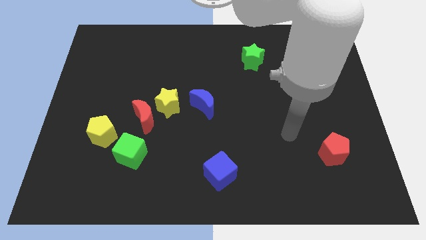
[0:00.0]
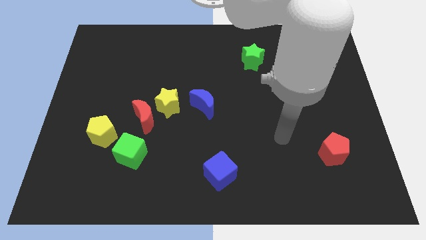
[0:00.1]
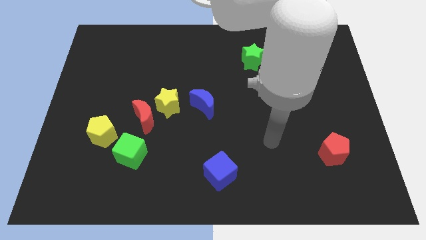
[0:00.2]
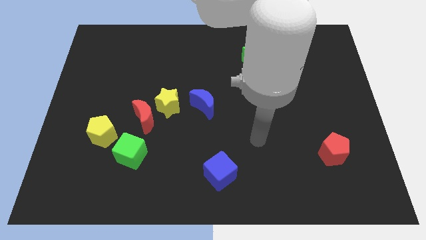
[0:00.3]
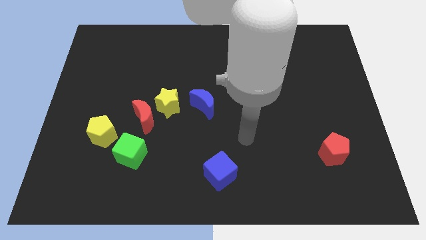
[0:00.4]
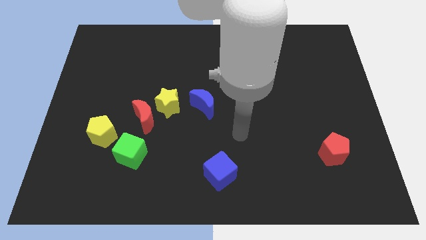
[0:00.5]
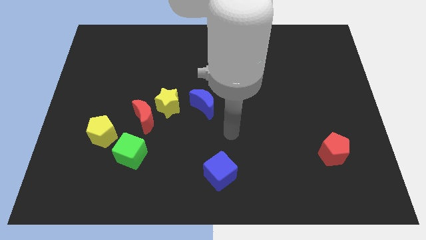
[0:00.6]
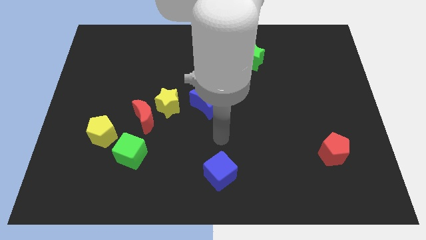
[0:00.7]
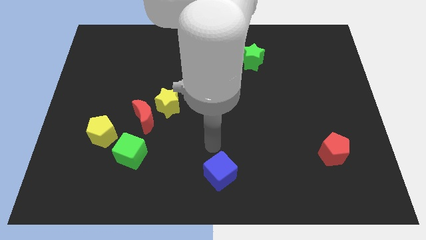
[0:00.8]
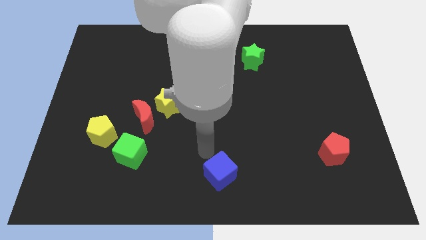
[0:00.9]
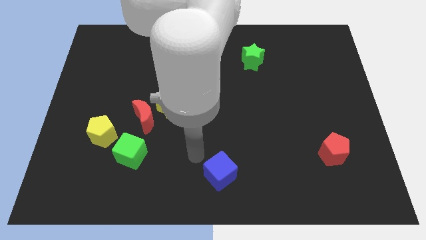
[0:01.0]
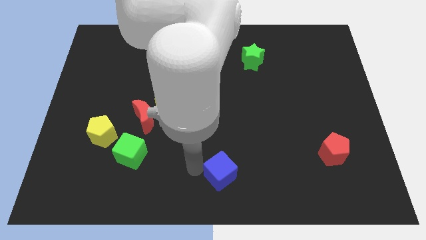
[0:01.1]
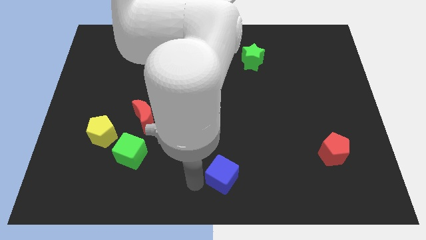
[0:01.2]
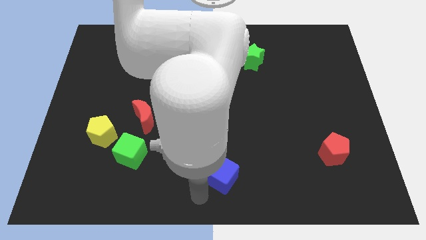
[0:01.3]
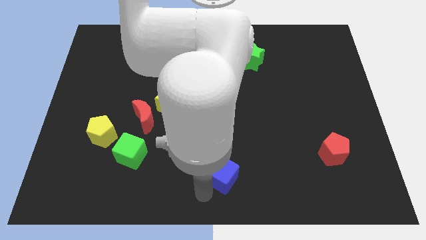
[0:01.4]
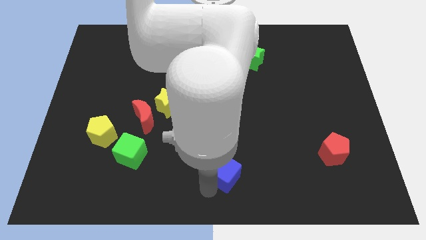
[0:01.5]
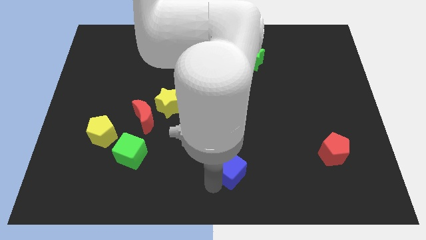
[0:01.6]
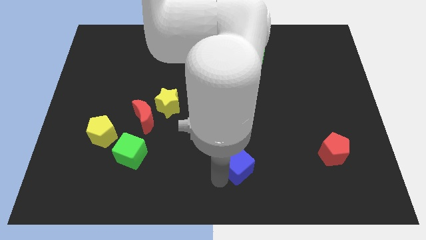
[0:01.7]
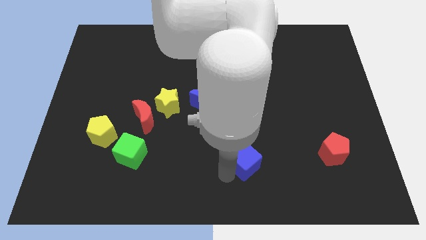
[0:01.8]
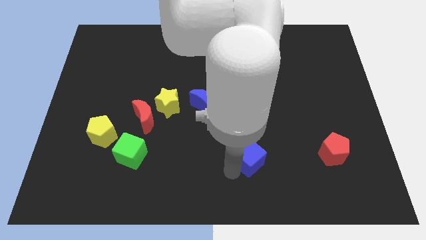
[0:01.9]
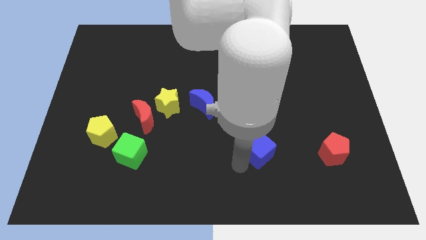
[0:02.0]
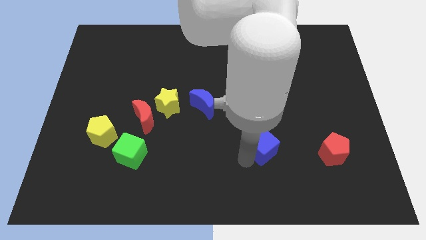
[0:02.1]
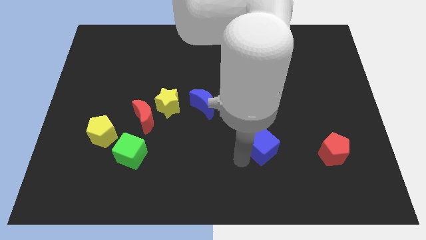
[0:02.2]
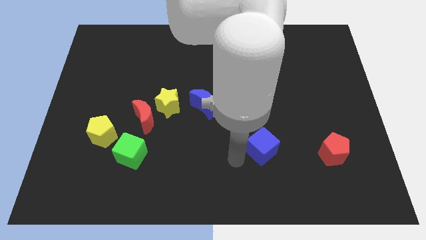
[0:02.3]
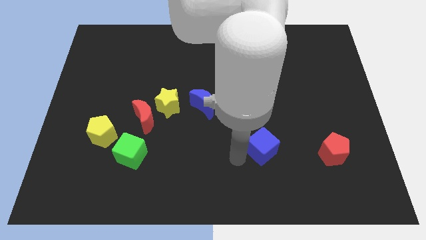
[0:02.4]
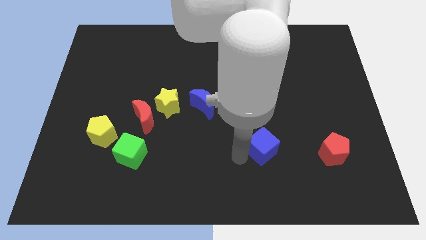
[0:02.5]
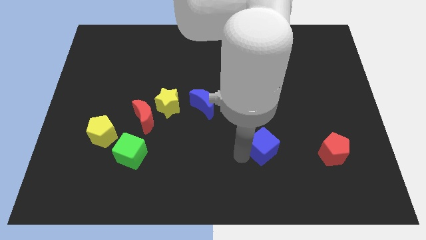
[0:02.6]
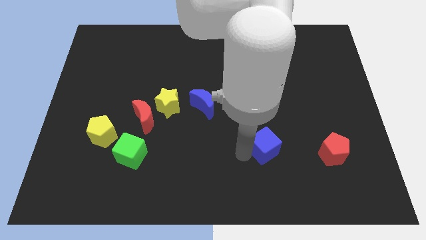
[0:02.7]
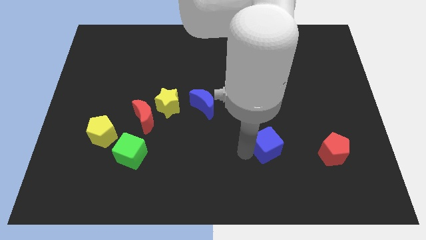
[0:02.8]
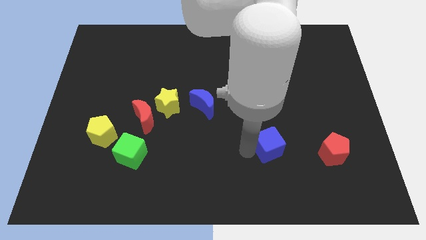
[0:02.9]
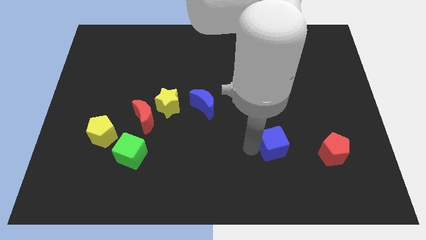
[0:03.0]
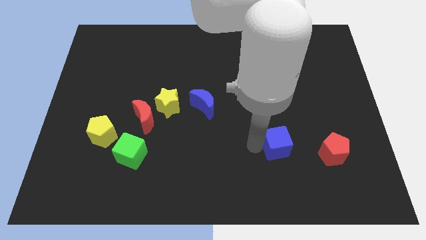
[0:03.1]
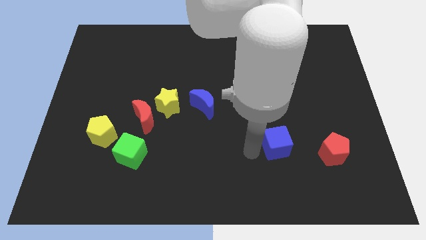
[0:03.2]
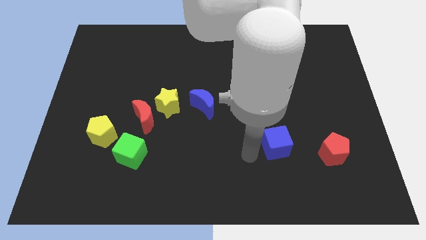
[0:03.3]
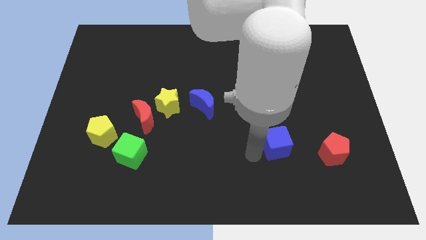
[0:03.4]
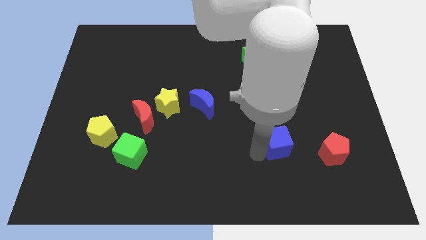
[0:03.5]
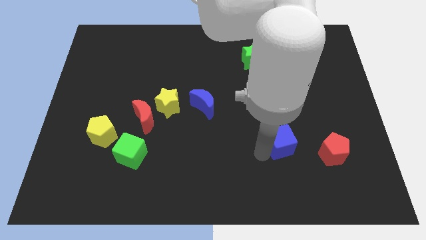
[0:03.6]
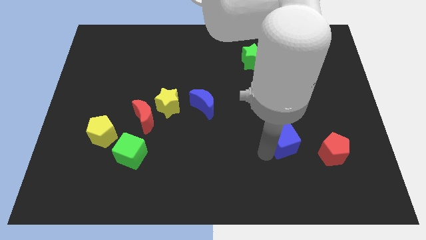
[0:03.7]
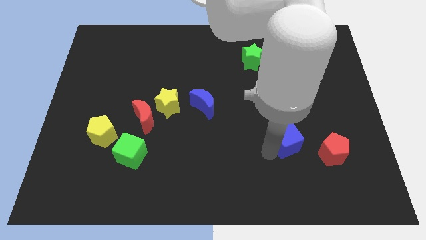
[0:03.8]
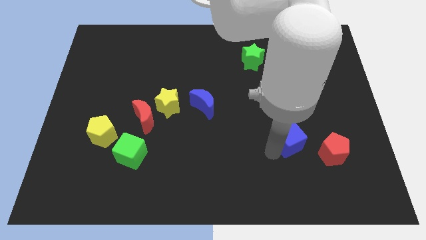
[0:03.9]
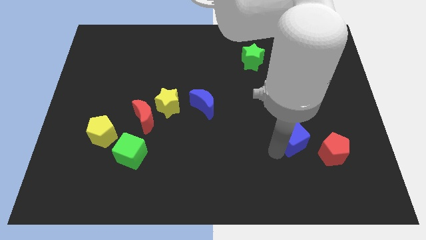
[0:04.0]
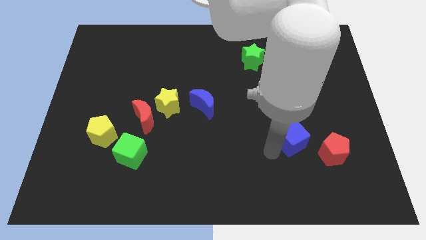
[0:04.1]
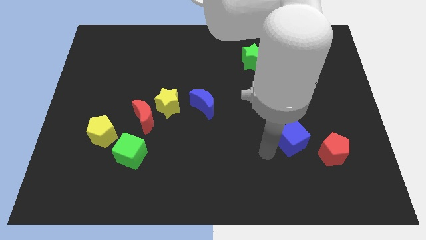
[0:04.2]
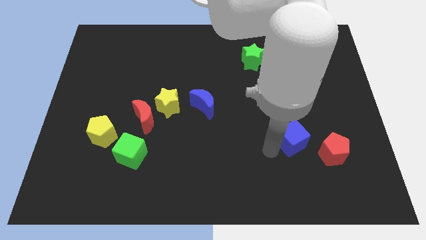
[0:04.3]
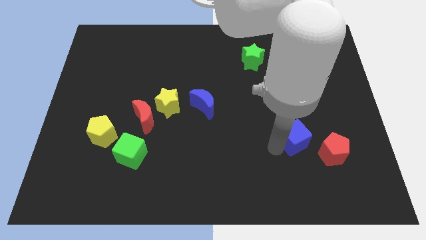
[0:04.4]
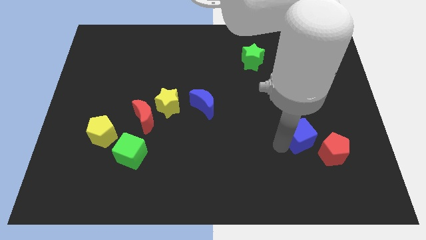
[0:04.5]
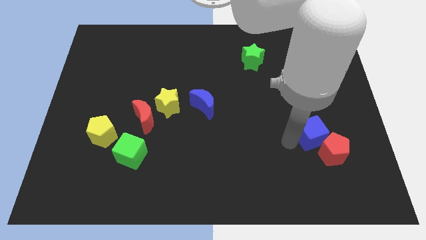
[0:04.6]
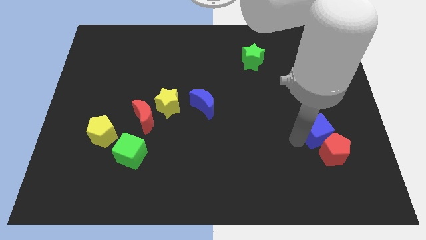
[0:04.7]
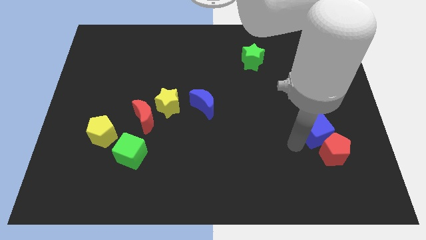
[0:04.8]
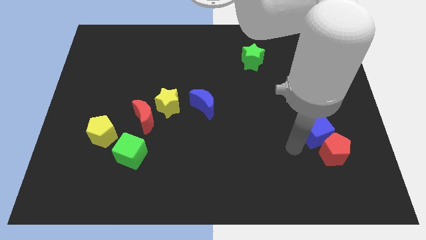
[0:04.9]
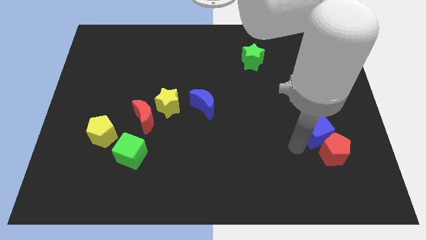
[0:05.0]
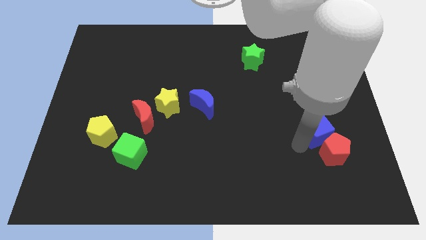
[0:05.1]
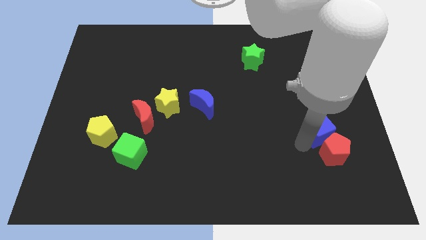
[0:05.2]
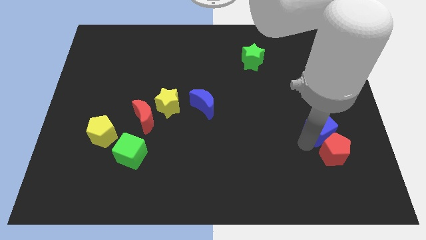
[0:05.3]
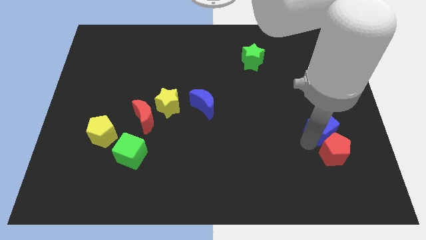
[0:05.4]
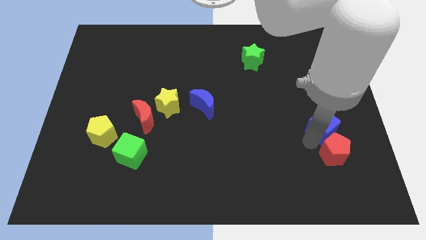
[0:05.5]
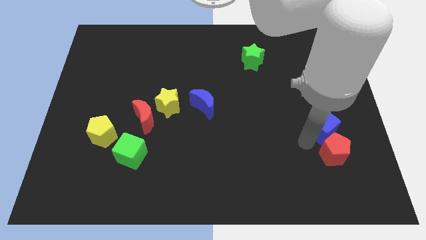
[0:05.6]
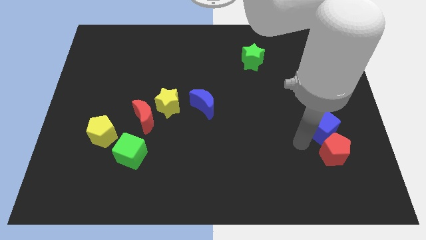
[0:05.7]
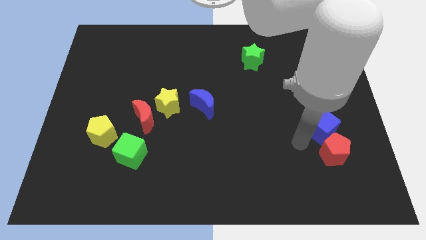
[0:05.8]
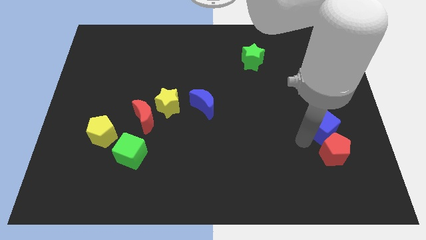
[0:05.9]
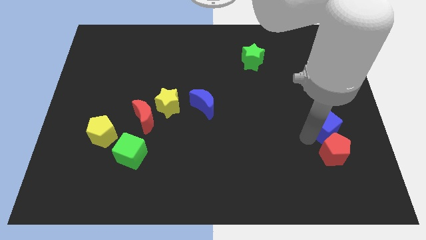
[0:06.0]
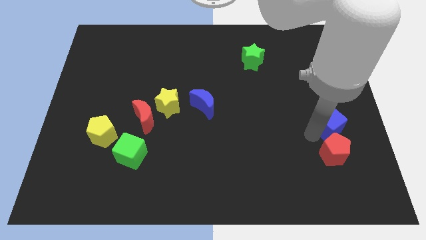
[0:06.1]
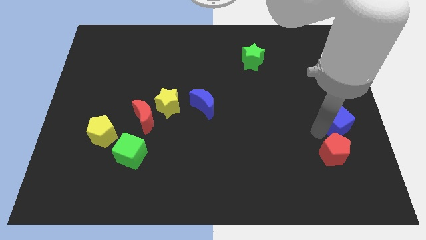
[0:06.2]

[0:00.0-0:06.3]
move the blue cube to the right side of the board

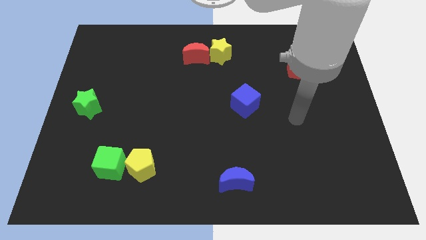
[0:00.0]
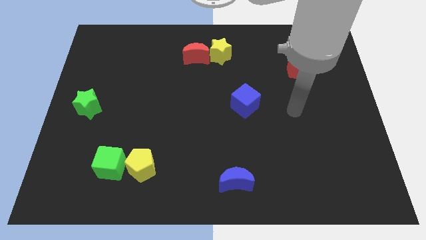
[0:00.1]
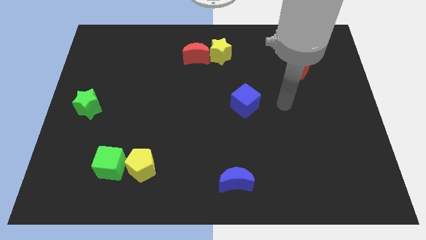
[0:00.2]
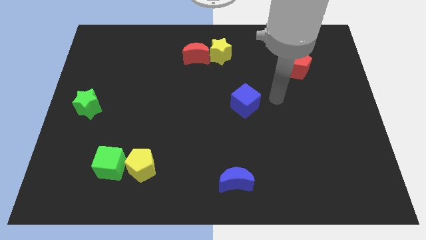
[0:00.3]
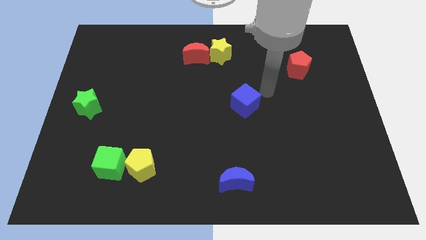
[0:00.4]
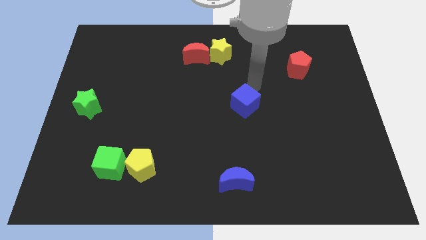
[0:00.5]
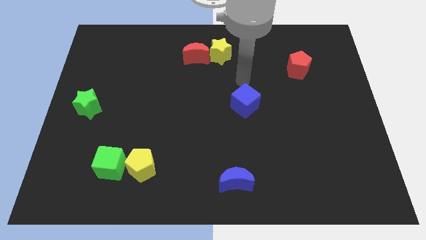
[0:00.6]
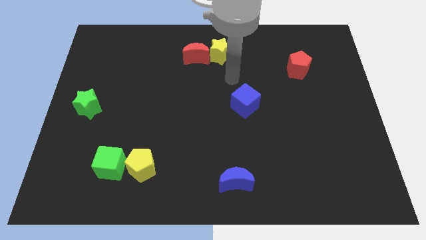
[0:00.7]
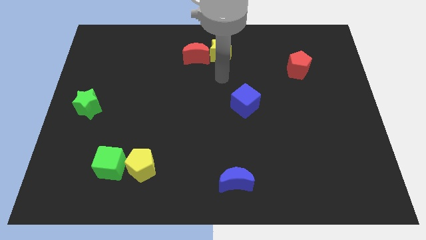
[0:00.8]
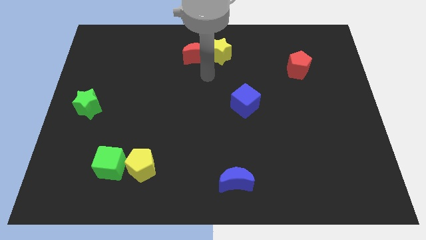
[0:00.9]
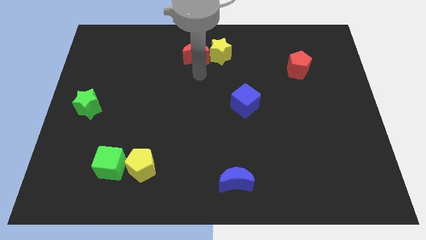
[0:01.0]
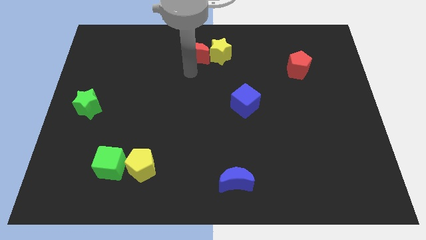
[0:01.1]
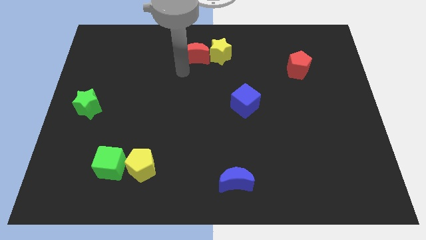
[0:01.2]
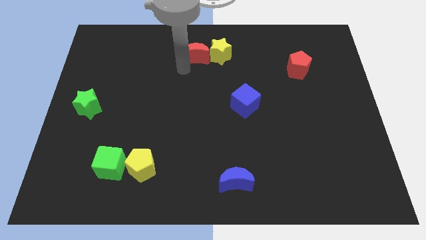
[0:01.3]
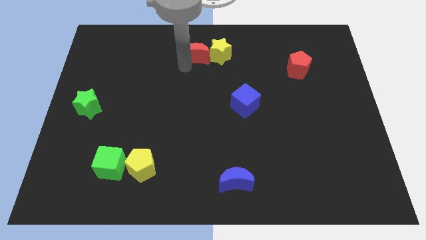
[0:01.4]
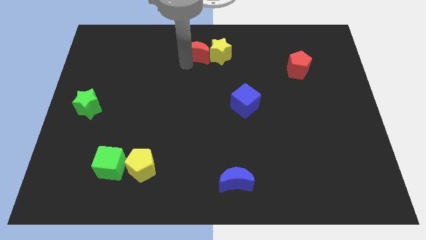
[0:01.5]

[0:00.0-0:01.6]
put the red moon to the towards your base
